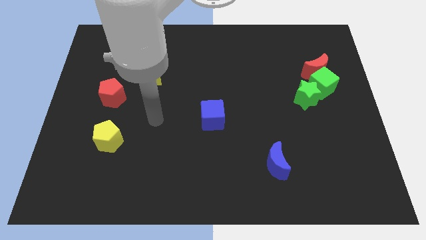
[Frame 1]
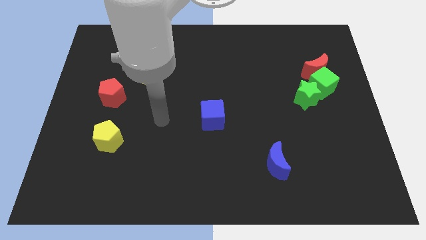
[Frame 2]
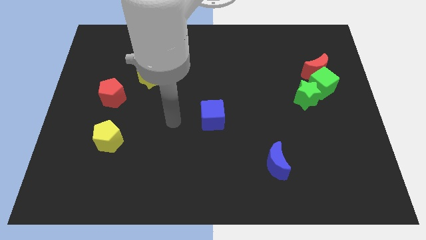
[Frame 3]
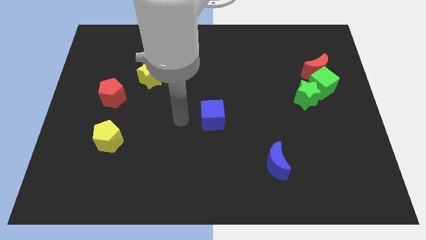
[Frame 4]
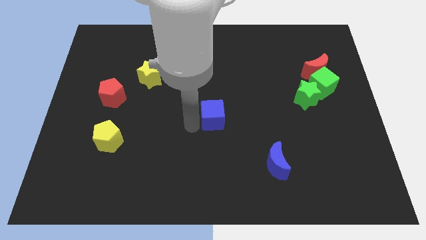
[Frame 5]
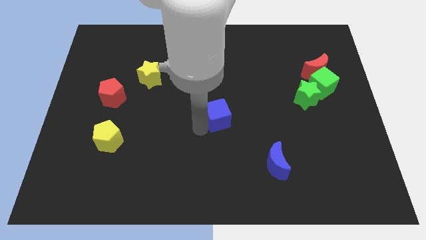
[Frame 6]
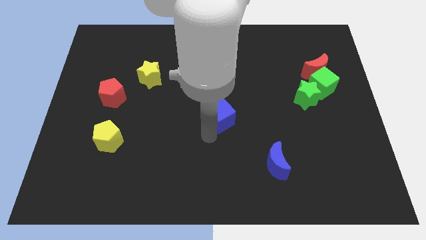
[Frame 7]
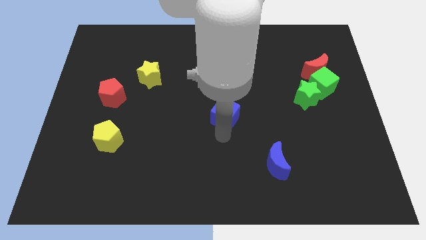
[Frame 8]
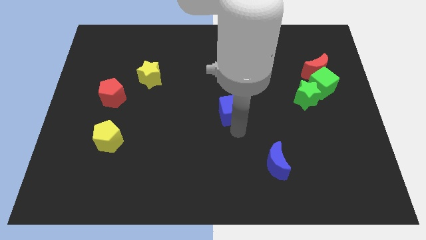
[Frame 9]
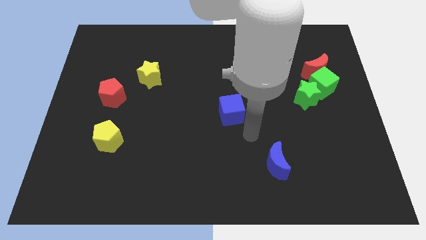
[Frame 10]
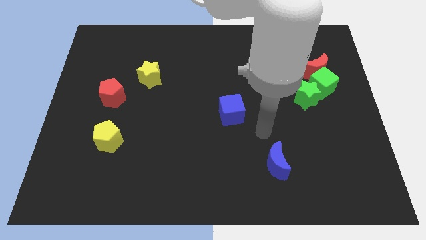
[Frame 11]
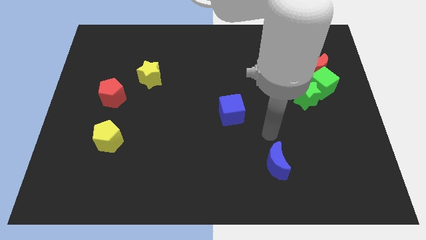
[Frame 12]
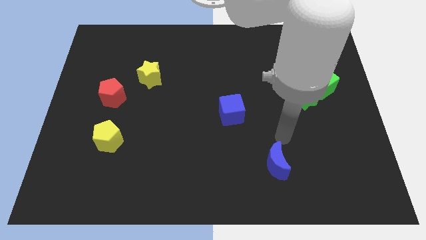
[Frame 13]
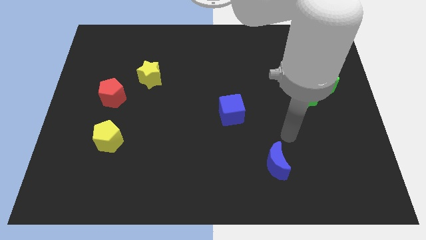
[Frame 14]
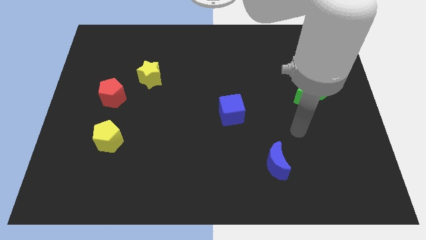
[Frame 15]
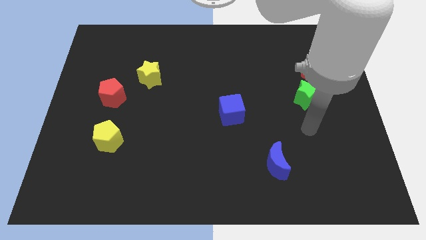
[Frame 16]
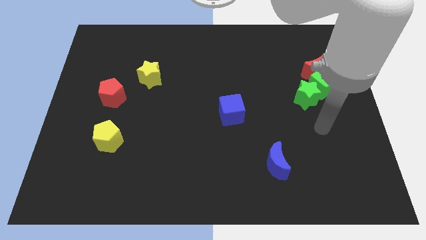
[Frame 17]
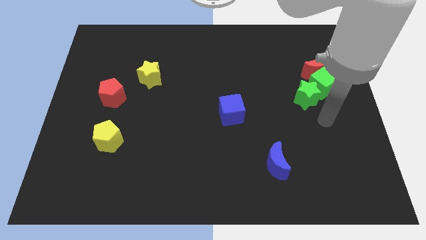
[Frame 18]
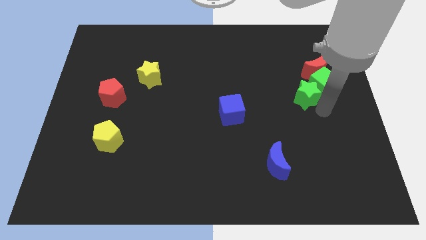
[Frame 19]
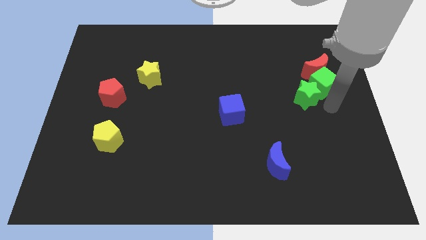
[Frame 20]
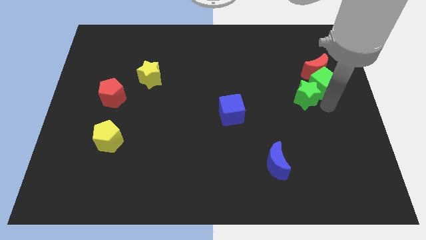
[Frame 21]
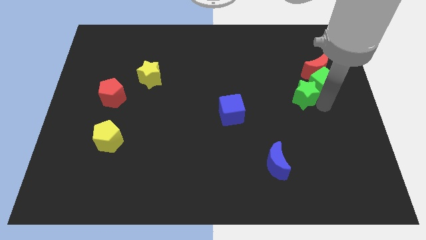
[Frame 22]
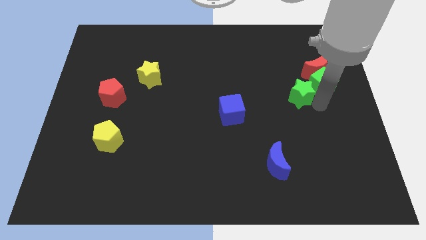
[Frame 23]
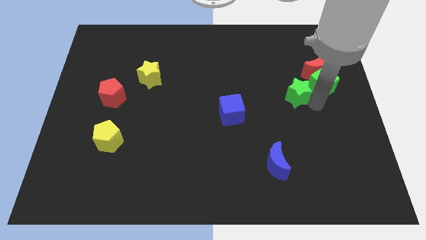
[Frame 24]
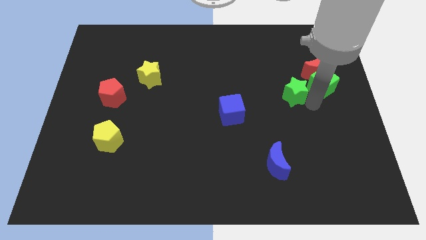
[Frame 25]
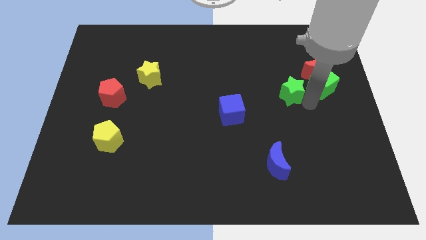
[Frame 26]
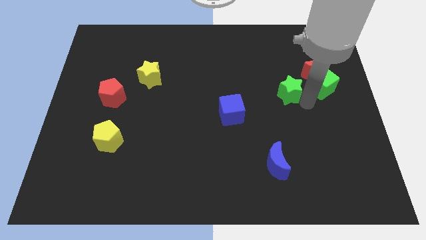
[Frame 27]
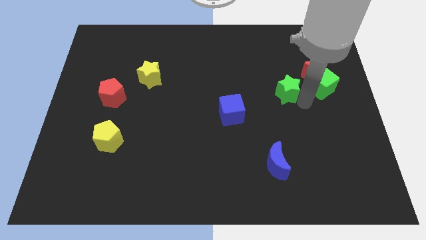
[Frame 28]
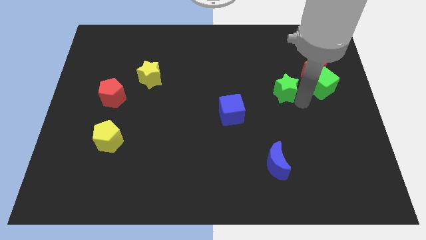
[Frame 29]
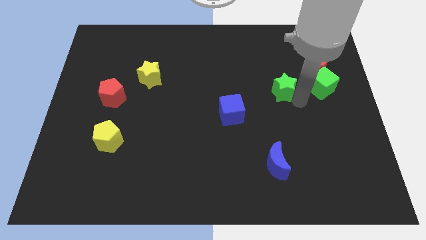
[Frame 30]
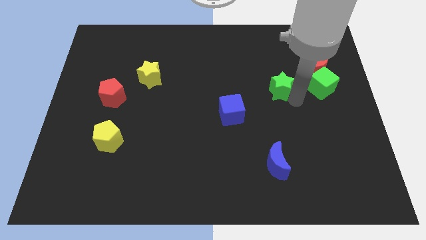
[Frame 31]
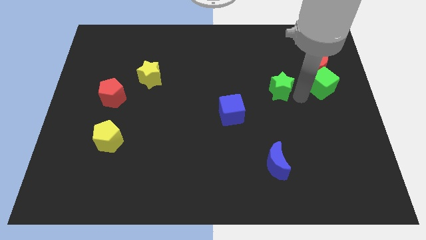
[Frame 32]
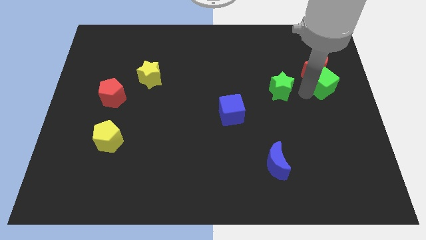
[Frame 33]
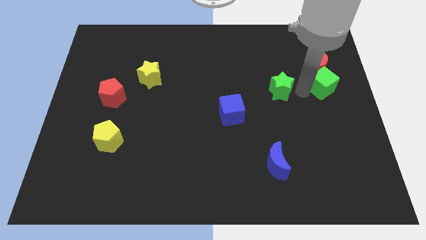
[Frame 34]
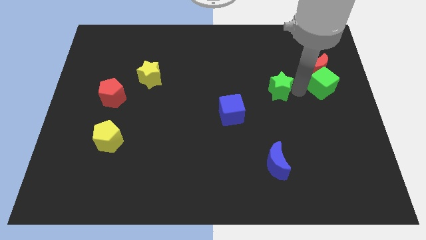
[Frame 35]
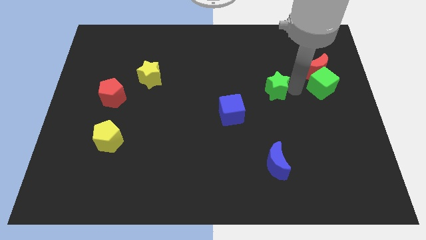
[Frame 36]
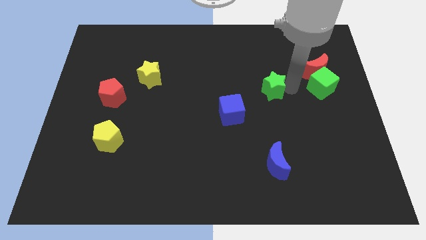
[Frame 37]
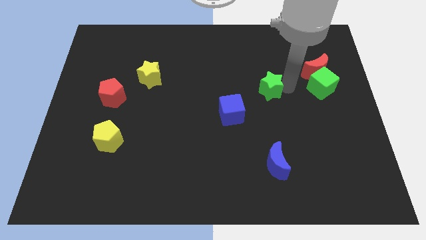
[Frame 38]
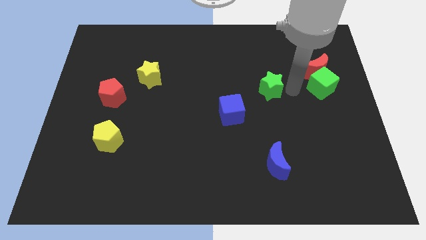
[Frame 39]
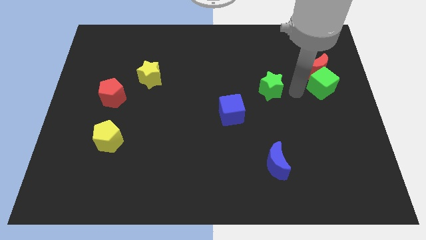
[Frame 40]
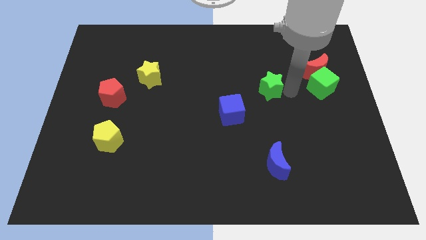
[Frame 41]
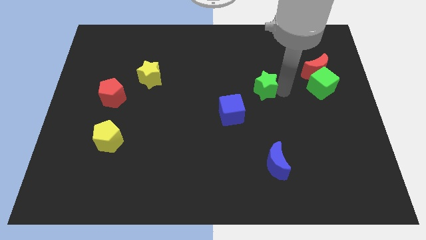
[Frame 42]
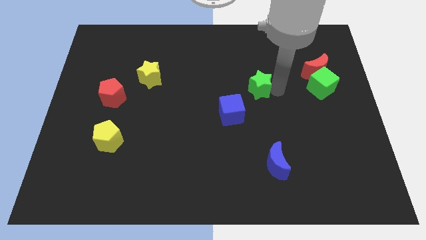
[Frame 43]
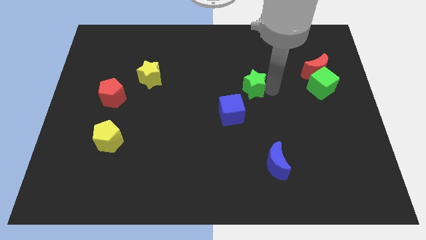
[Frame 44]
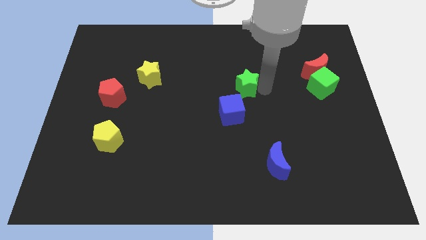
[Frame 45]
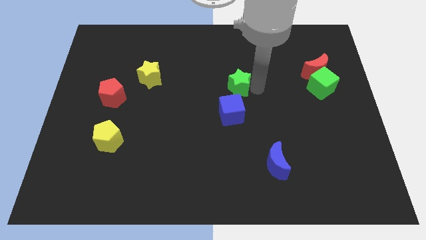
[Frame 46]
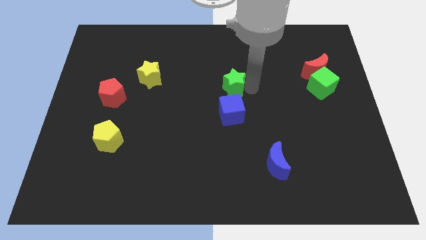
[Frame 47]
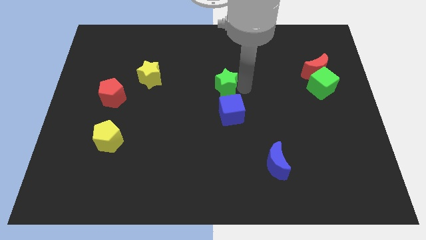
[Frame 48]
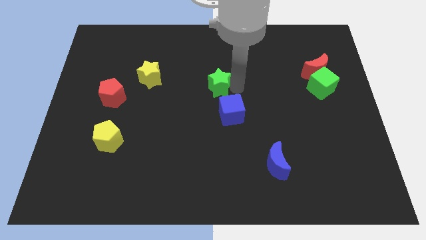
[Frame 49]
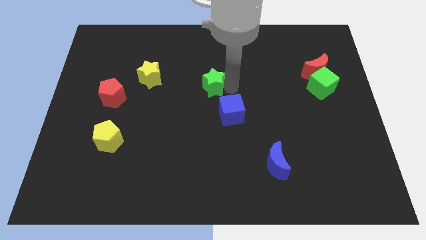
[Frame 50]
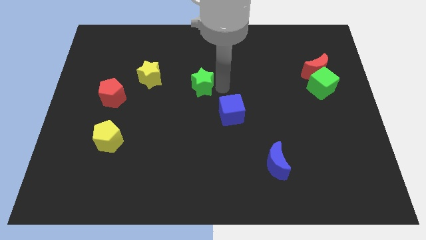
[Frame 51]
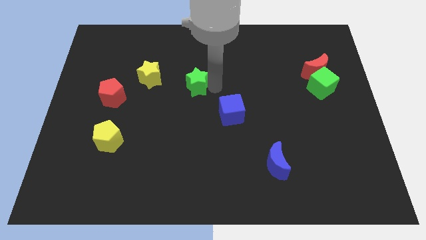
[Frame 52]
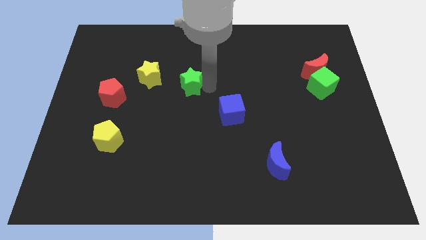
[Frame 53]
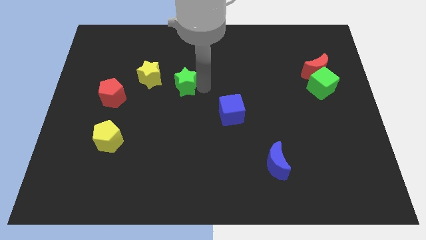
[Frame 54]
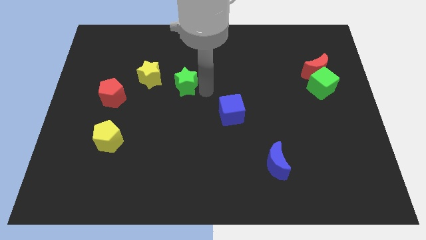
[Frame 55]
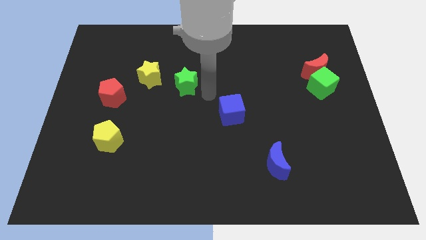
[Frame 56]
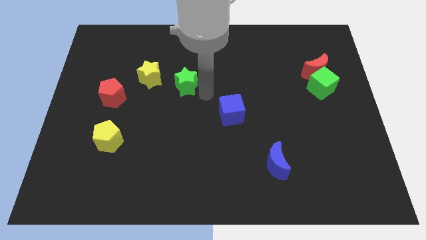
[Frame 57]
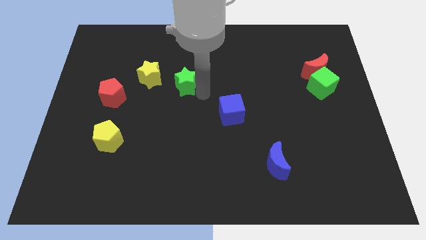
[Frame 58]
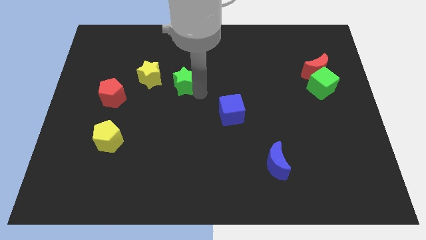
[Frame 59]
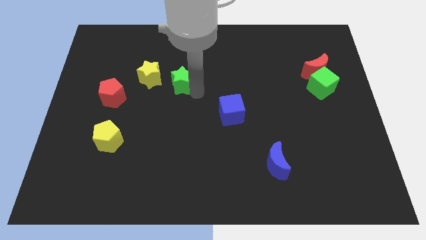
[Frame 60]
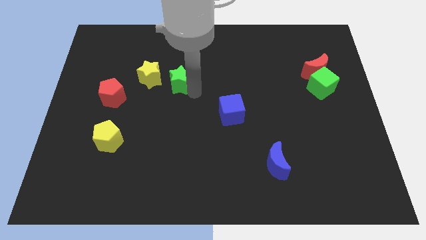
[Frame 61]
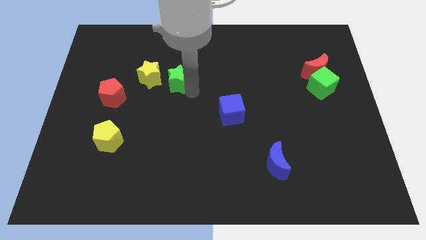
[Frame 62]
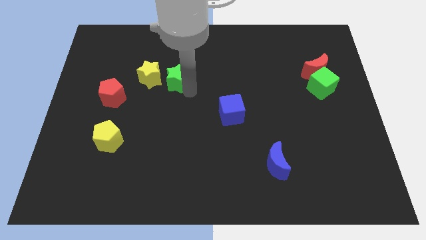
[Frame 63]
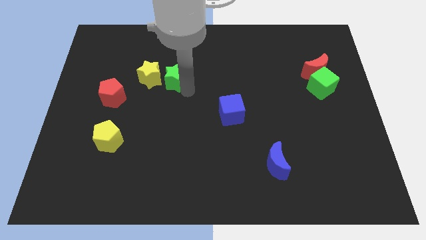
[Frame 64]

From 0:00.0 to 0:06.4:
push the green star close to the yellow star
